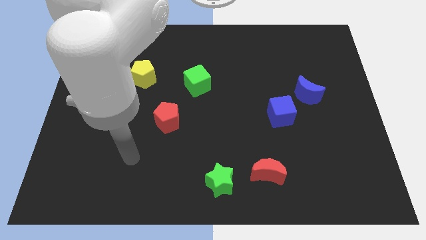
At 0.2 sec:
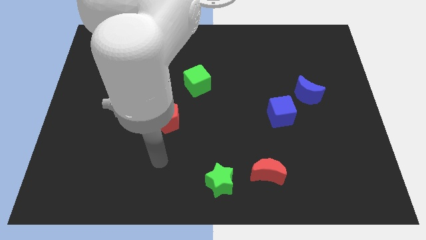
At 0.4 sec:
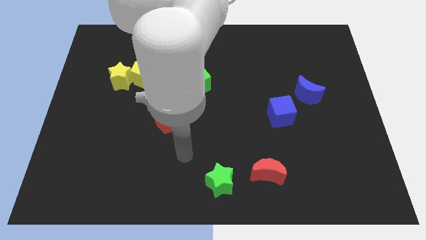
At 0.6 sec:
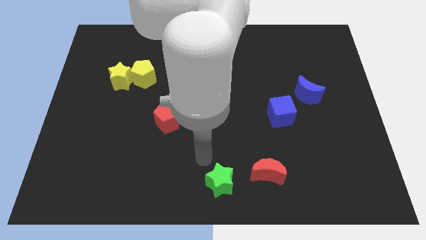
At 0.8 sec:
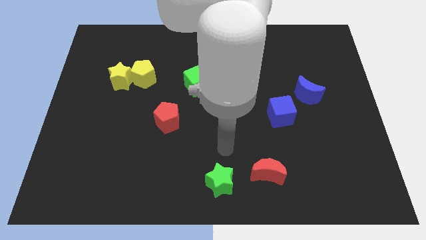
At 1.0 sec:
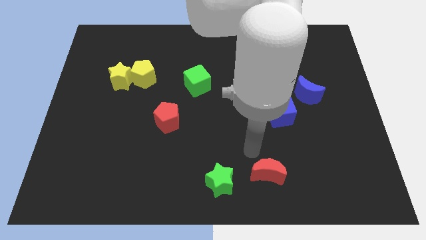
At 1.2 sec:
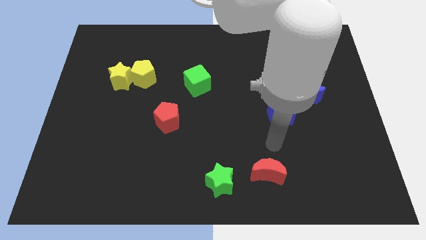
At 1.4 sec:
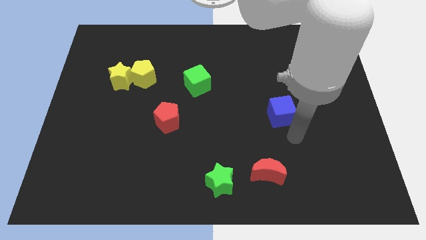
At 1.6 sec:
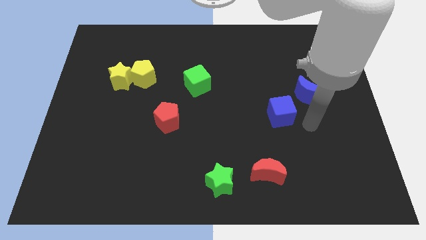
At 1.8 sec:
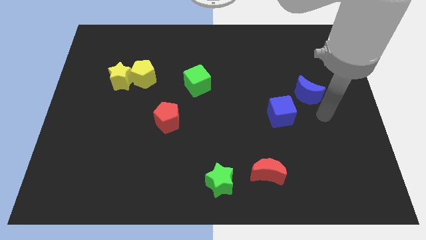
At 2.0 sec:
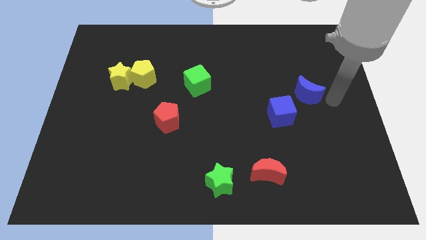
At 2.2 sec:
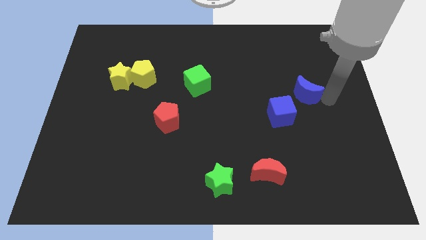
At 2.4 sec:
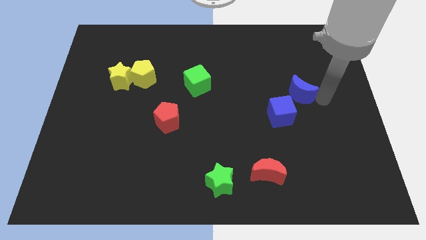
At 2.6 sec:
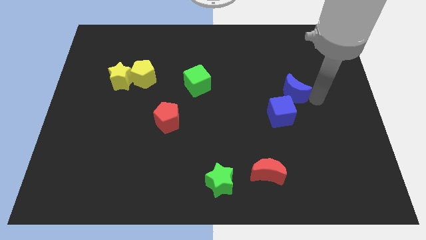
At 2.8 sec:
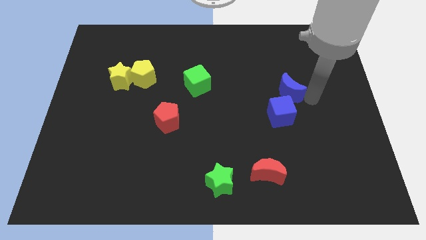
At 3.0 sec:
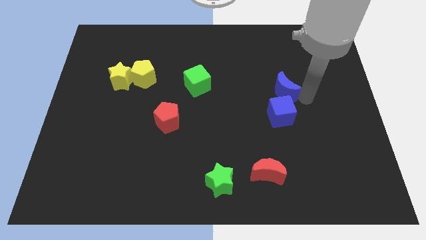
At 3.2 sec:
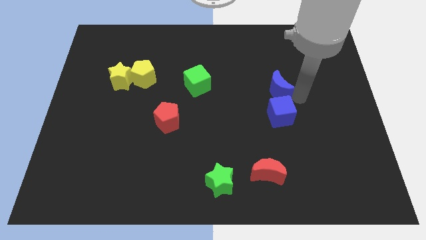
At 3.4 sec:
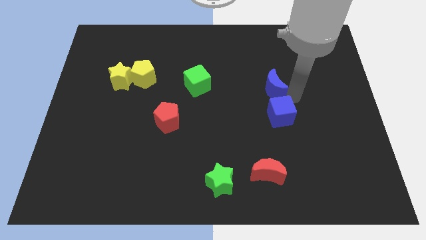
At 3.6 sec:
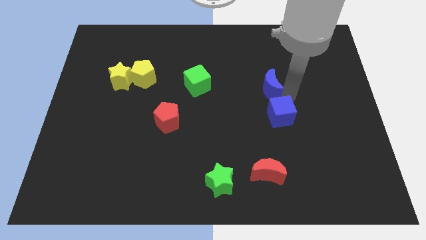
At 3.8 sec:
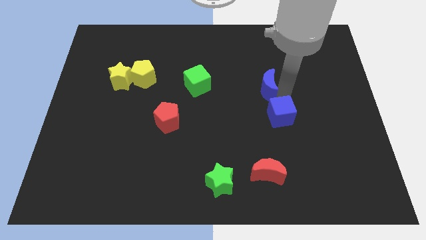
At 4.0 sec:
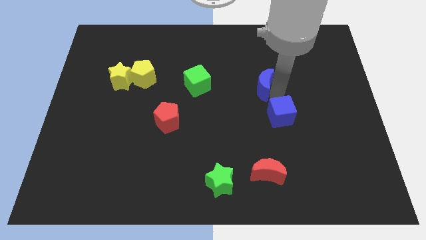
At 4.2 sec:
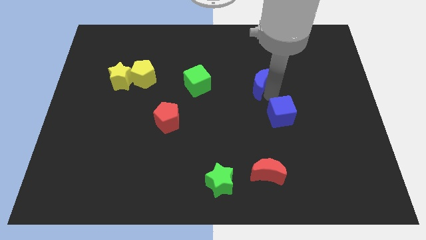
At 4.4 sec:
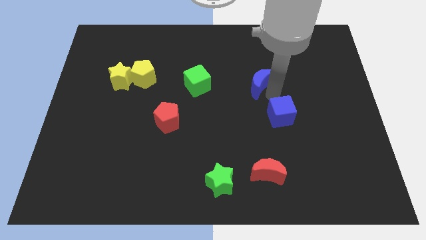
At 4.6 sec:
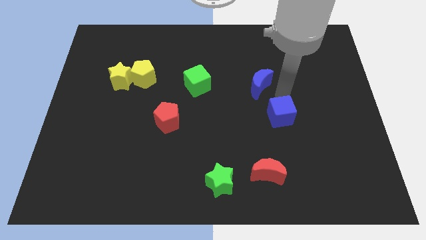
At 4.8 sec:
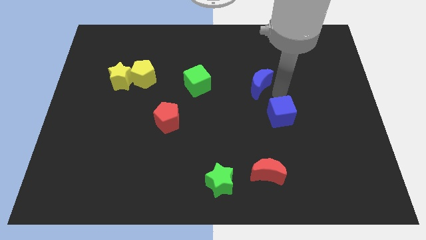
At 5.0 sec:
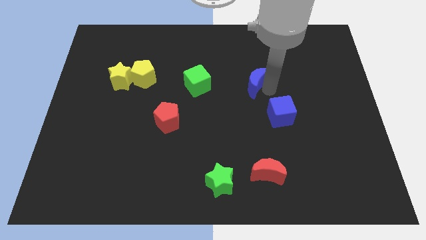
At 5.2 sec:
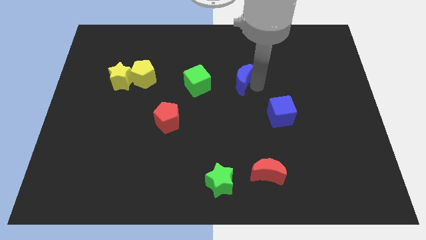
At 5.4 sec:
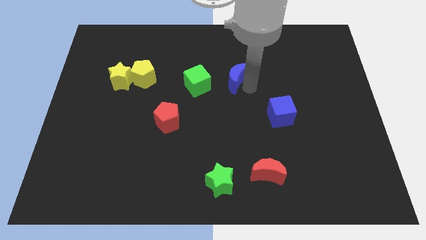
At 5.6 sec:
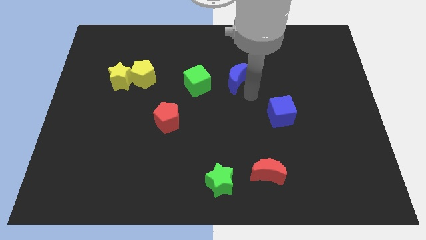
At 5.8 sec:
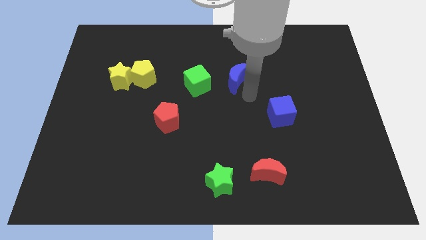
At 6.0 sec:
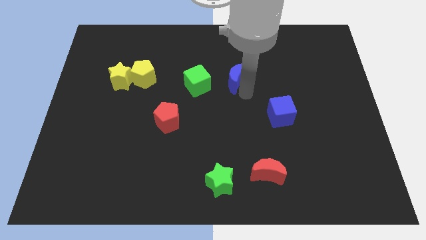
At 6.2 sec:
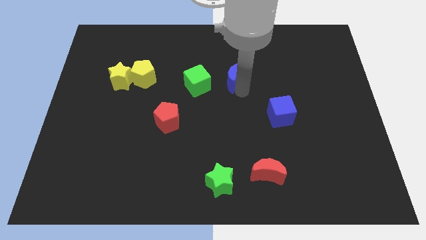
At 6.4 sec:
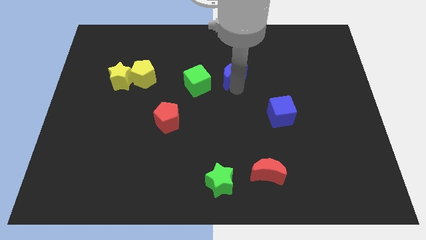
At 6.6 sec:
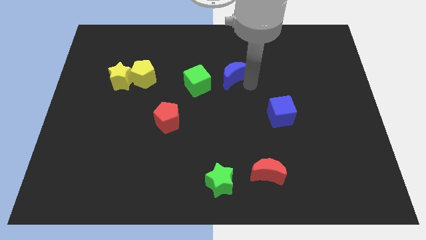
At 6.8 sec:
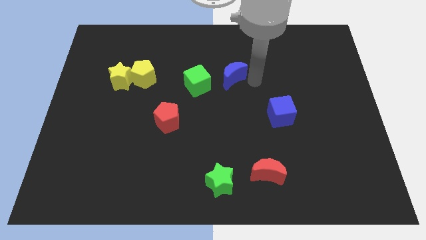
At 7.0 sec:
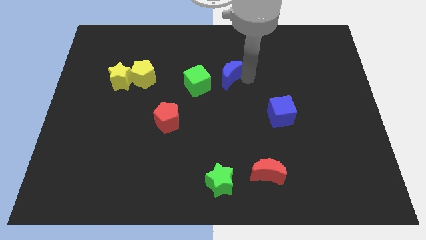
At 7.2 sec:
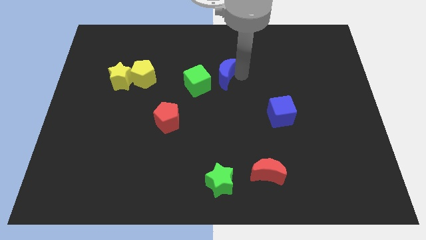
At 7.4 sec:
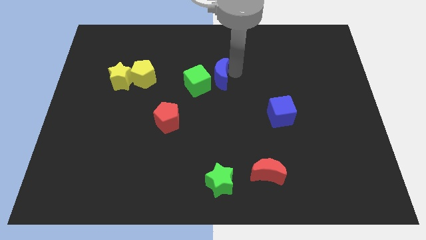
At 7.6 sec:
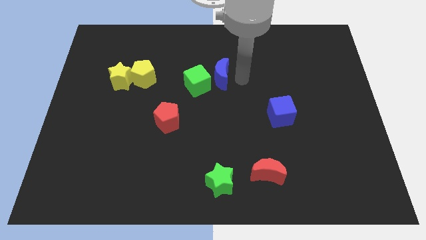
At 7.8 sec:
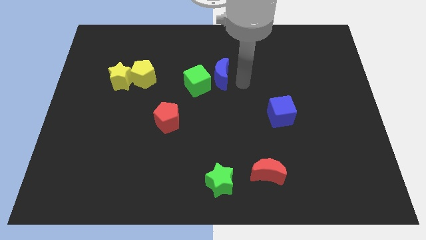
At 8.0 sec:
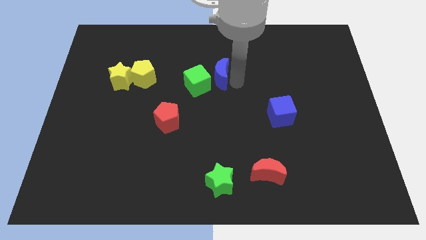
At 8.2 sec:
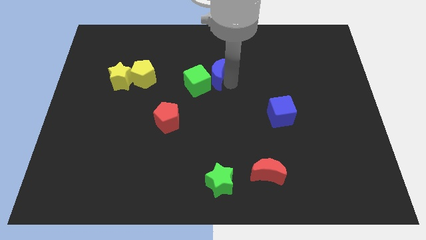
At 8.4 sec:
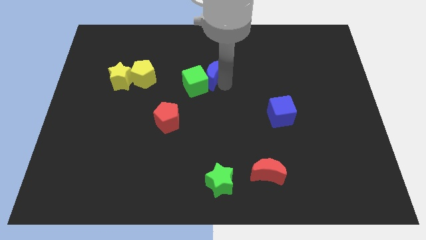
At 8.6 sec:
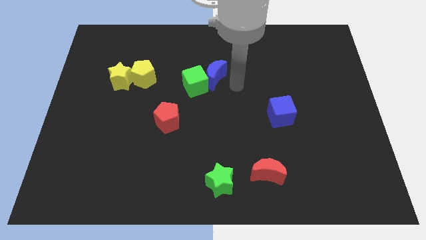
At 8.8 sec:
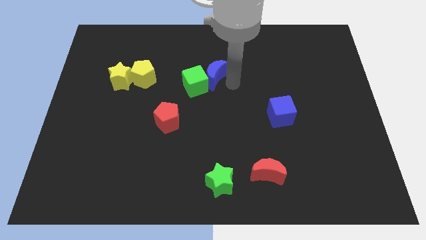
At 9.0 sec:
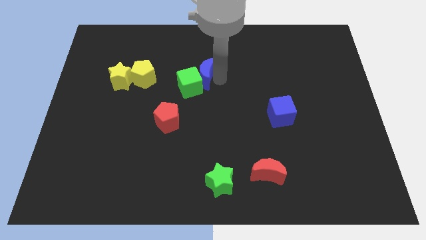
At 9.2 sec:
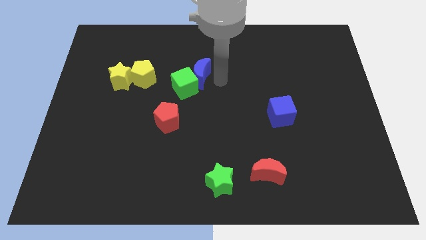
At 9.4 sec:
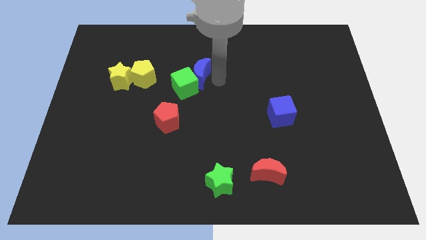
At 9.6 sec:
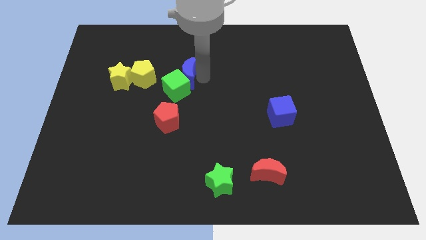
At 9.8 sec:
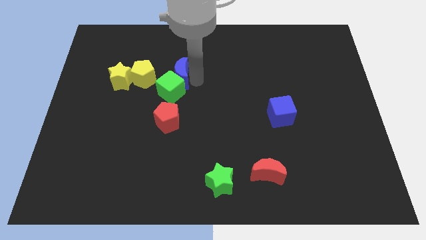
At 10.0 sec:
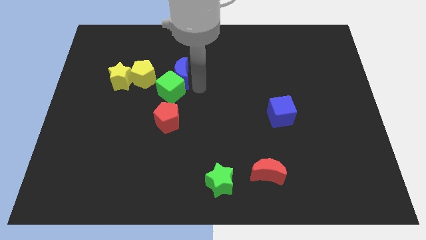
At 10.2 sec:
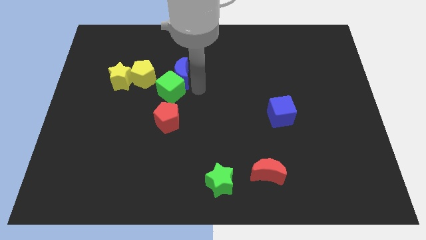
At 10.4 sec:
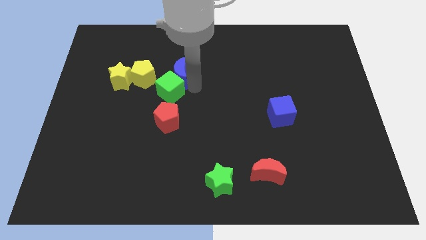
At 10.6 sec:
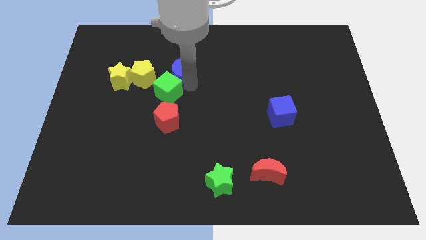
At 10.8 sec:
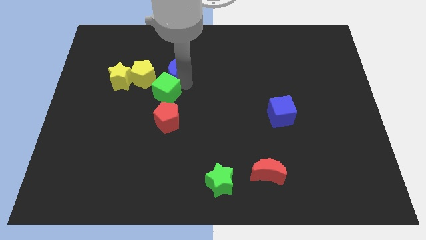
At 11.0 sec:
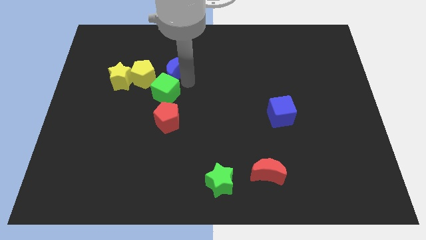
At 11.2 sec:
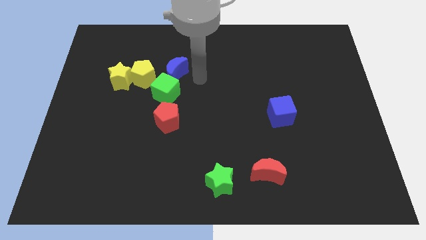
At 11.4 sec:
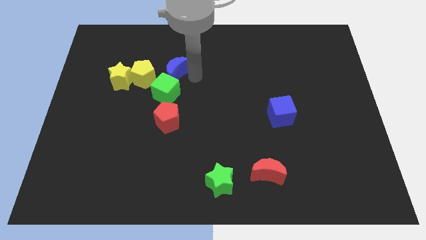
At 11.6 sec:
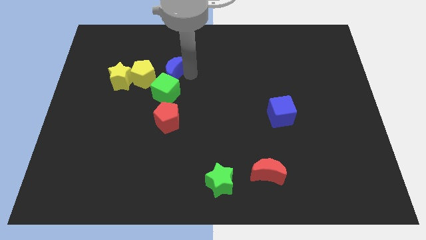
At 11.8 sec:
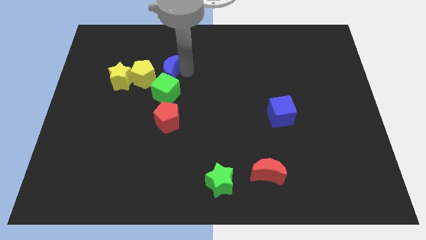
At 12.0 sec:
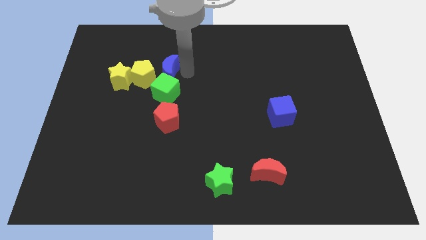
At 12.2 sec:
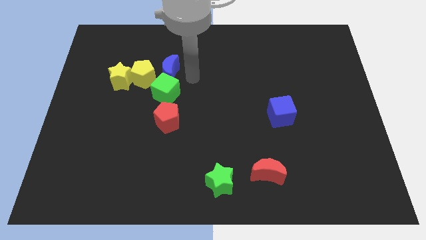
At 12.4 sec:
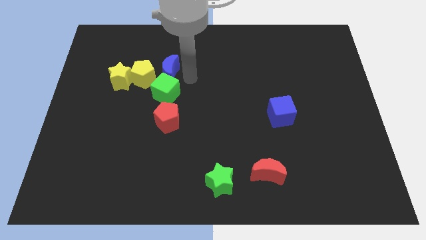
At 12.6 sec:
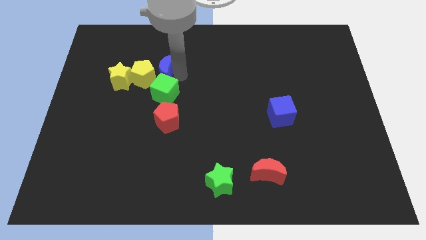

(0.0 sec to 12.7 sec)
push the blue moon close to the yellow pentagon

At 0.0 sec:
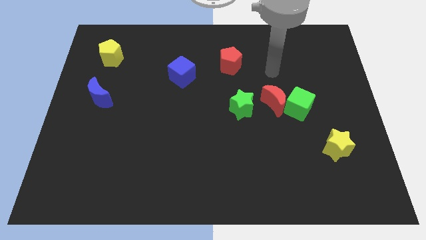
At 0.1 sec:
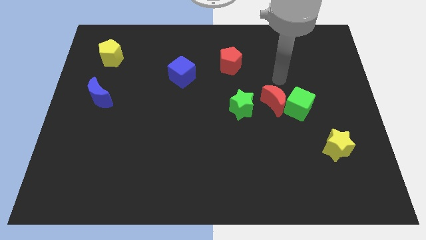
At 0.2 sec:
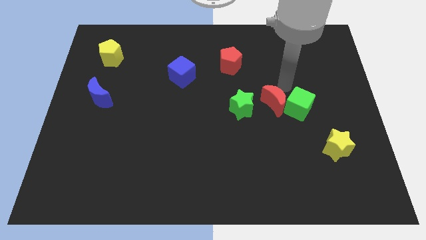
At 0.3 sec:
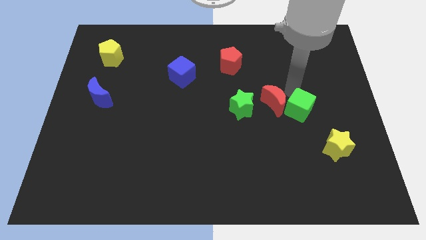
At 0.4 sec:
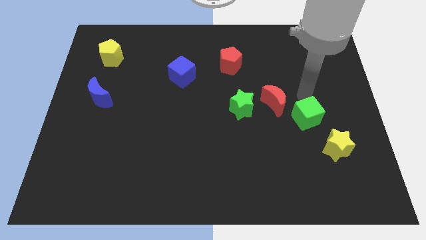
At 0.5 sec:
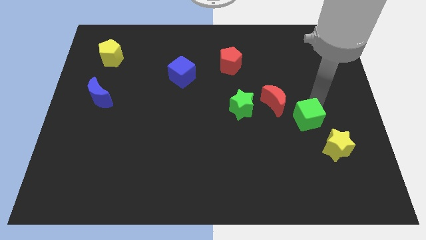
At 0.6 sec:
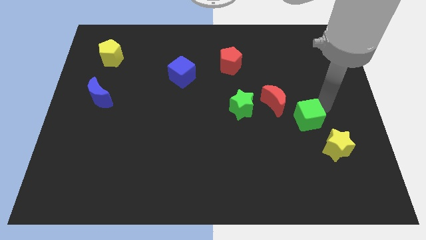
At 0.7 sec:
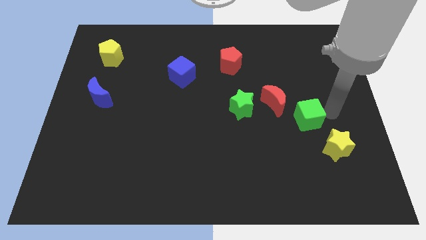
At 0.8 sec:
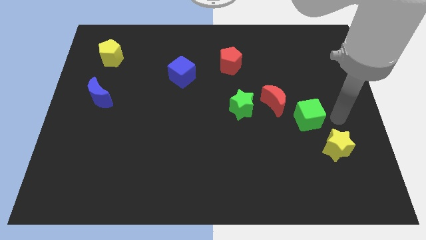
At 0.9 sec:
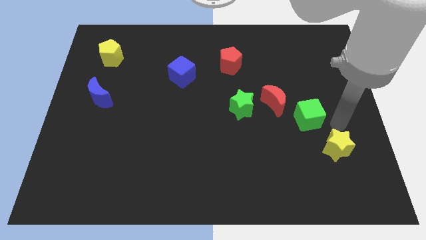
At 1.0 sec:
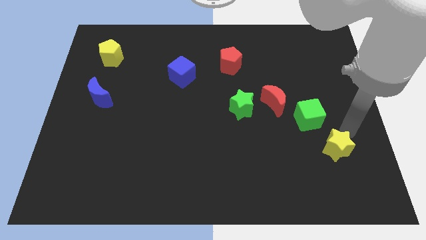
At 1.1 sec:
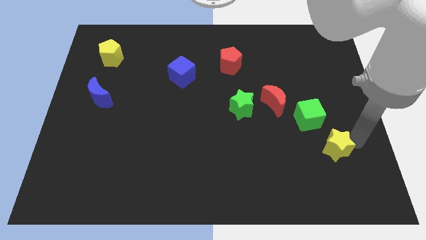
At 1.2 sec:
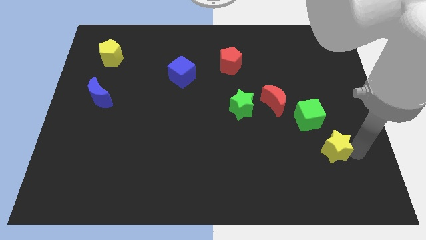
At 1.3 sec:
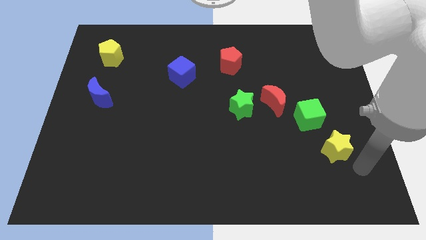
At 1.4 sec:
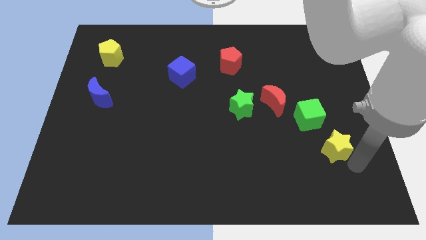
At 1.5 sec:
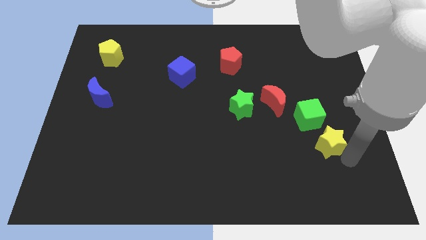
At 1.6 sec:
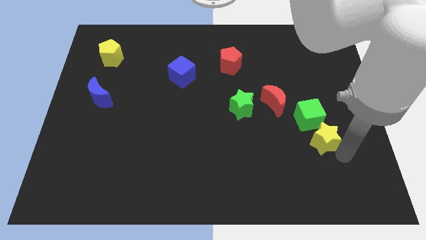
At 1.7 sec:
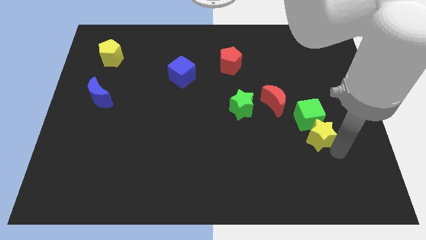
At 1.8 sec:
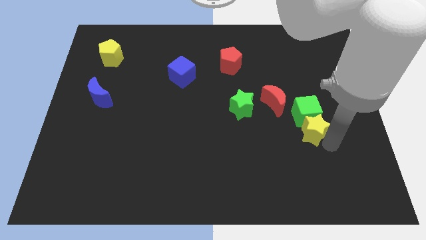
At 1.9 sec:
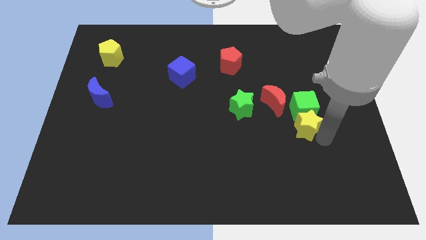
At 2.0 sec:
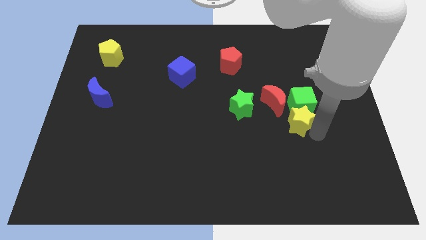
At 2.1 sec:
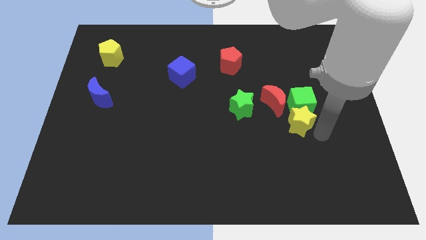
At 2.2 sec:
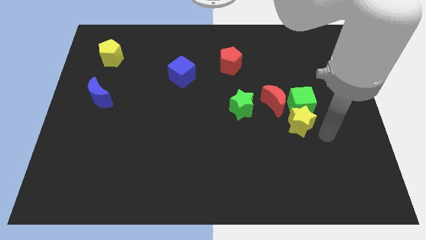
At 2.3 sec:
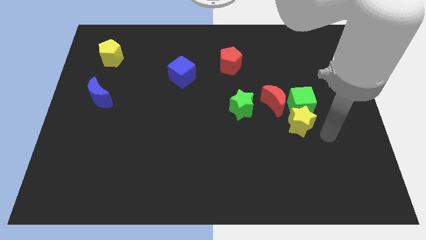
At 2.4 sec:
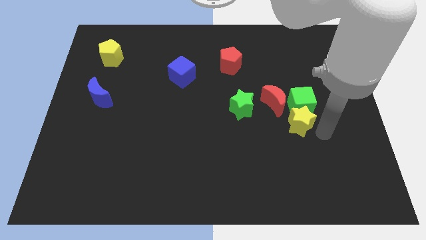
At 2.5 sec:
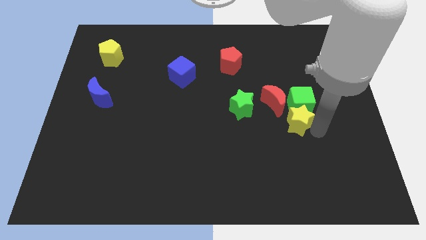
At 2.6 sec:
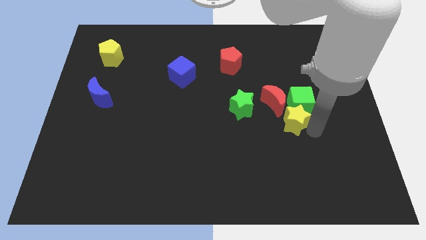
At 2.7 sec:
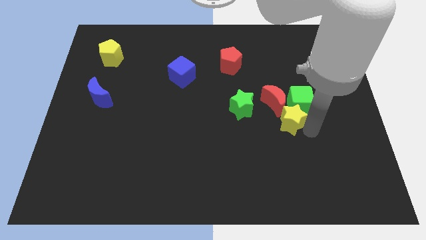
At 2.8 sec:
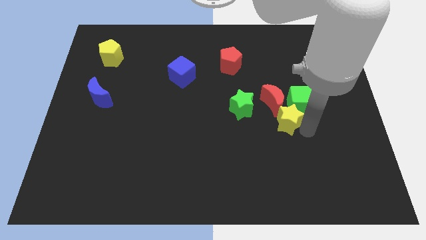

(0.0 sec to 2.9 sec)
move the yellow star close to the red moon
